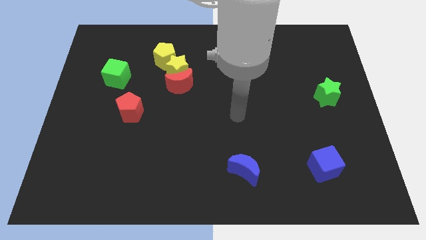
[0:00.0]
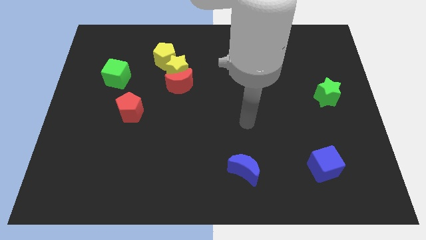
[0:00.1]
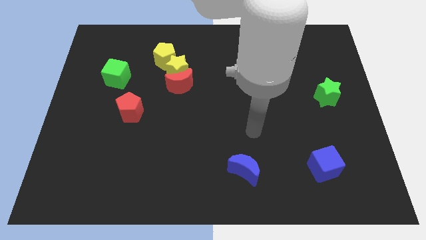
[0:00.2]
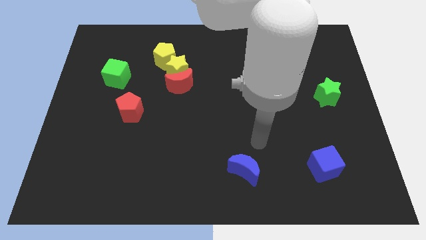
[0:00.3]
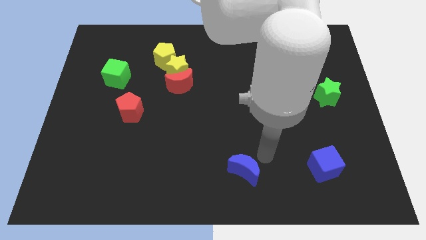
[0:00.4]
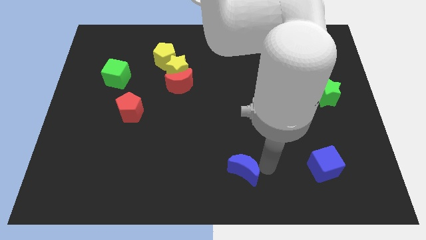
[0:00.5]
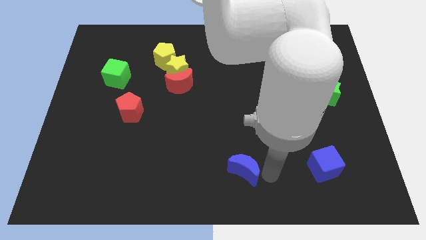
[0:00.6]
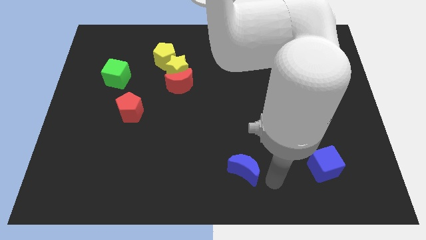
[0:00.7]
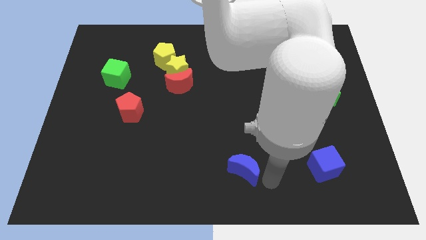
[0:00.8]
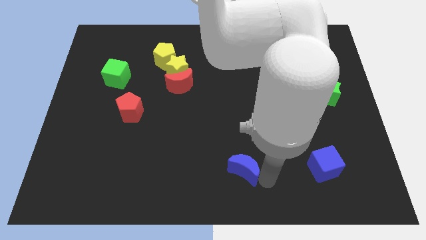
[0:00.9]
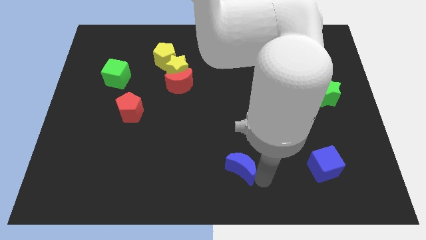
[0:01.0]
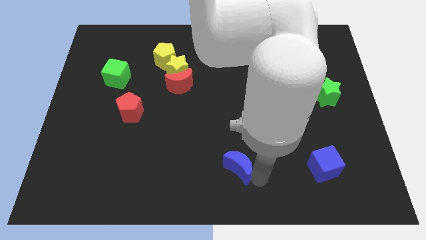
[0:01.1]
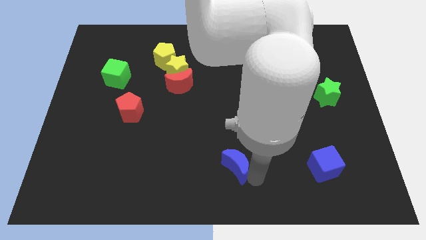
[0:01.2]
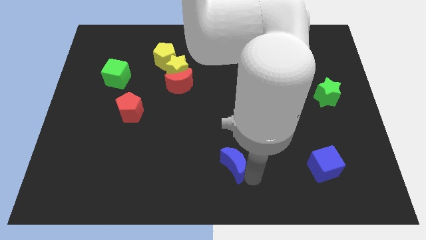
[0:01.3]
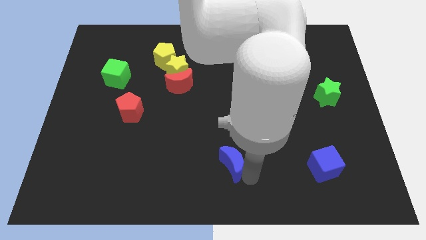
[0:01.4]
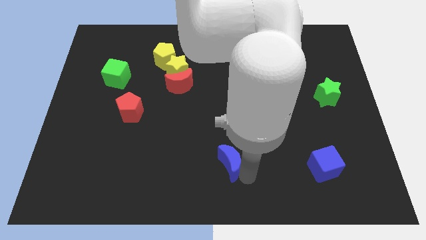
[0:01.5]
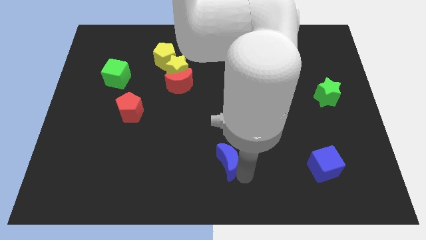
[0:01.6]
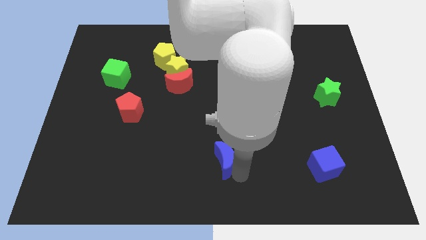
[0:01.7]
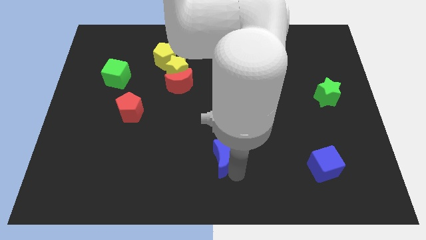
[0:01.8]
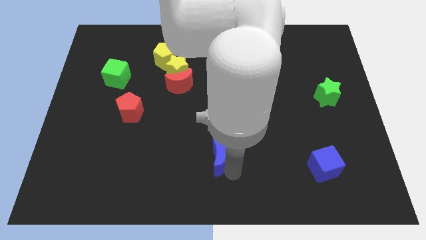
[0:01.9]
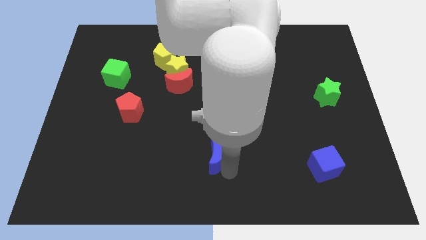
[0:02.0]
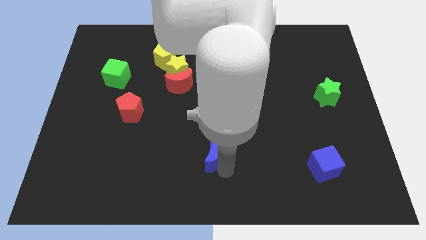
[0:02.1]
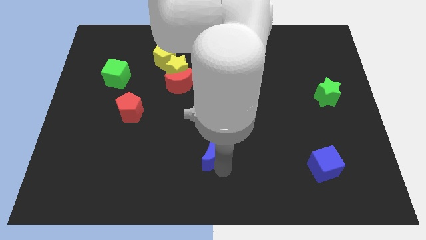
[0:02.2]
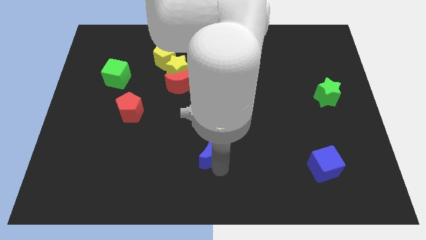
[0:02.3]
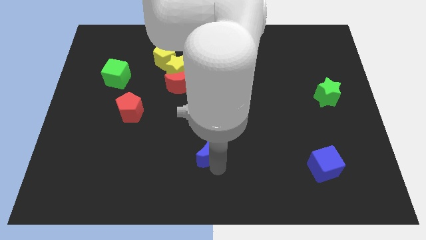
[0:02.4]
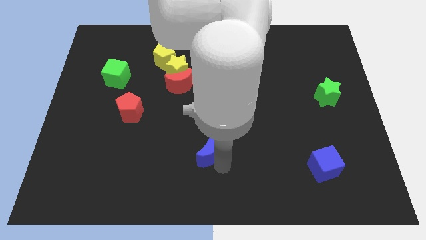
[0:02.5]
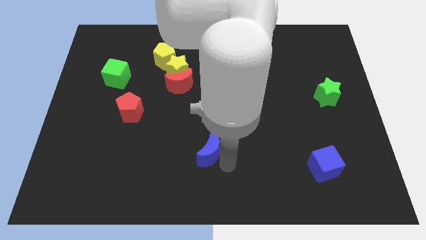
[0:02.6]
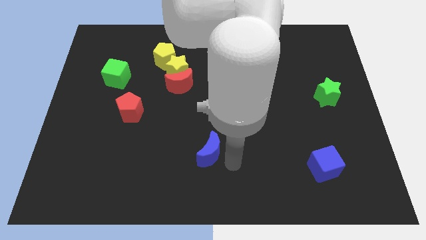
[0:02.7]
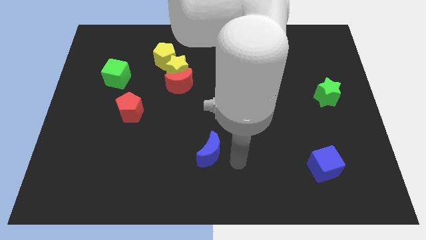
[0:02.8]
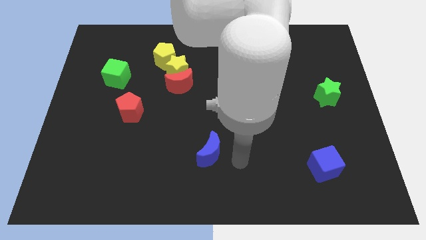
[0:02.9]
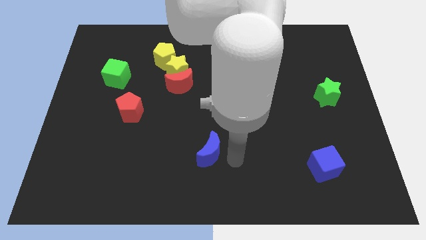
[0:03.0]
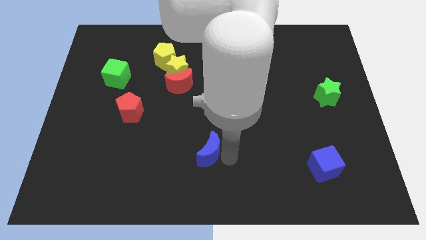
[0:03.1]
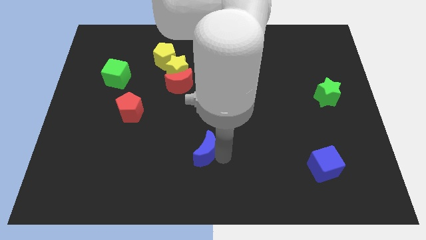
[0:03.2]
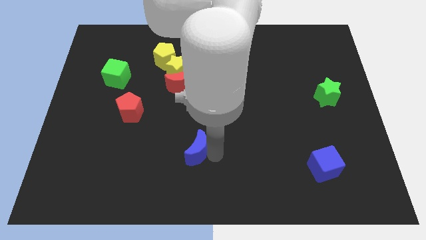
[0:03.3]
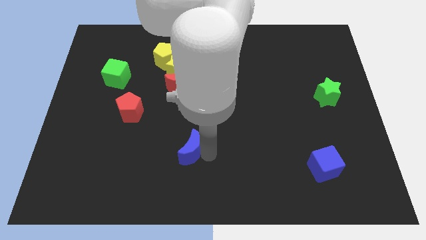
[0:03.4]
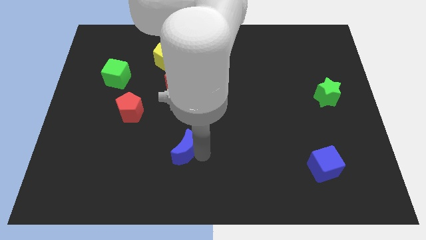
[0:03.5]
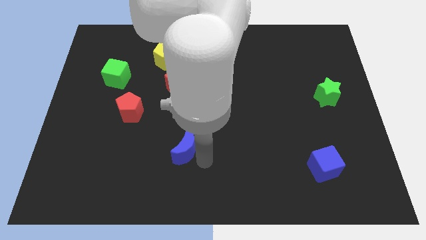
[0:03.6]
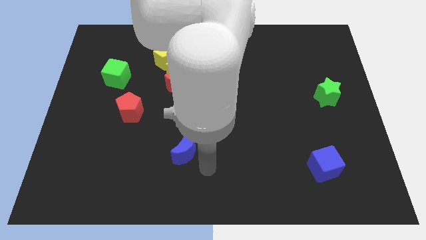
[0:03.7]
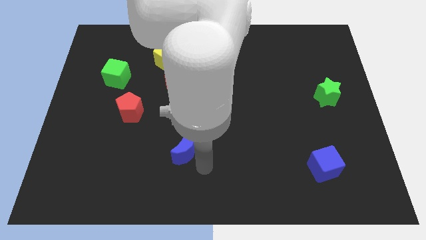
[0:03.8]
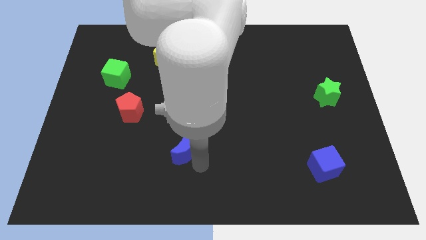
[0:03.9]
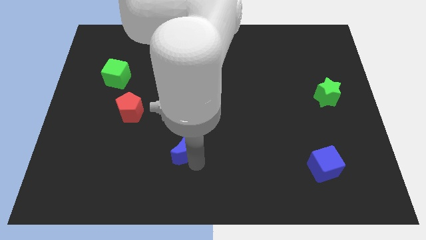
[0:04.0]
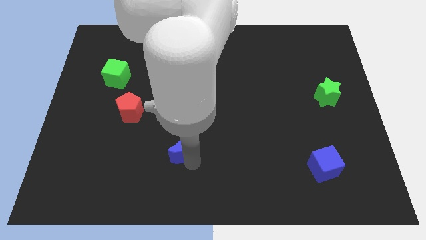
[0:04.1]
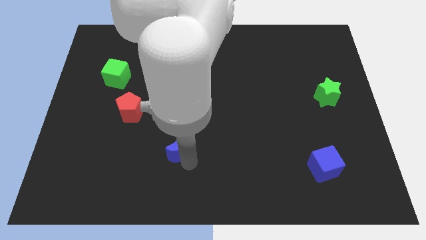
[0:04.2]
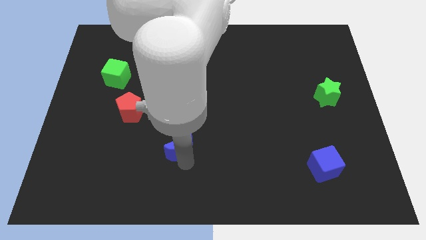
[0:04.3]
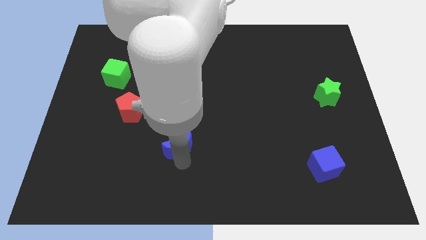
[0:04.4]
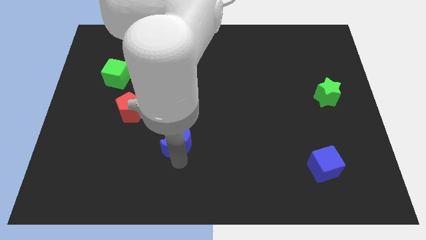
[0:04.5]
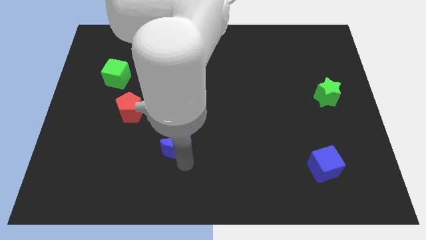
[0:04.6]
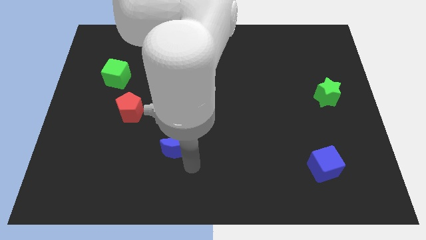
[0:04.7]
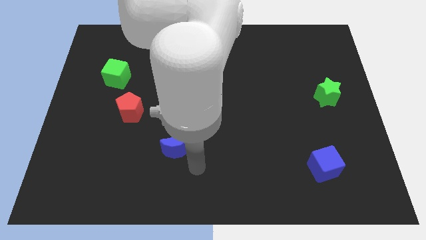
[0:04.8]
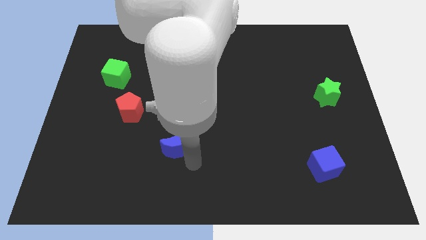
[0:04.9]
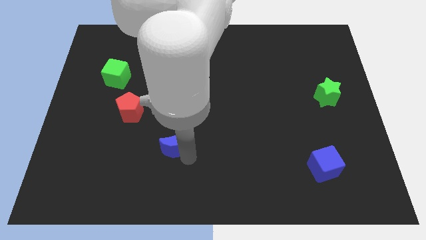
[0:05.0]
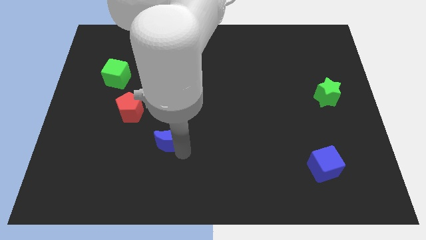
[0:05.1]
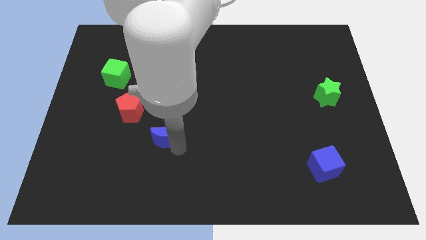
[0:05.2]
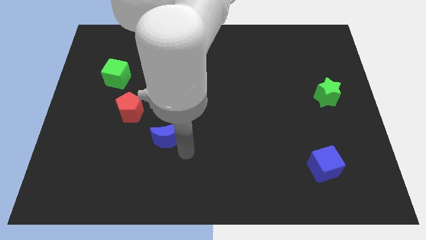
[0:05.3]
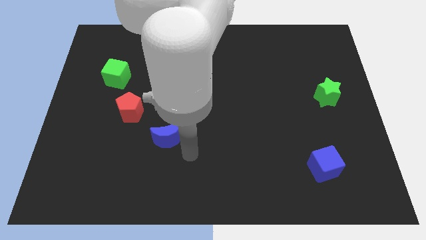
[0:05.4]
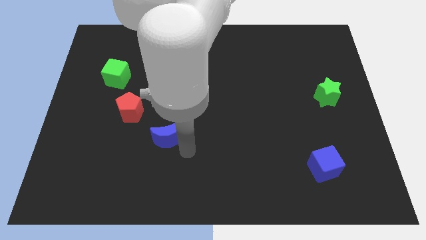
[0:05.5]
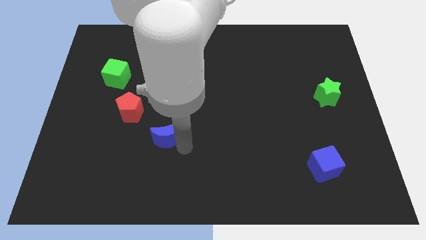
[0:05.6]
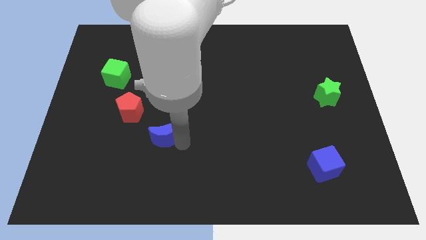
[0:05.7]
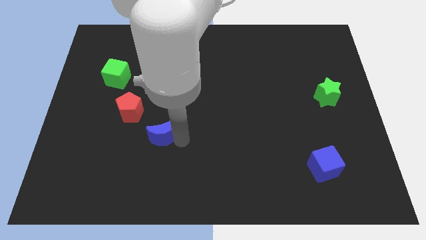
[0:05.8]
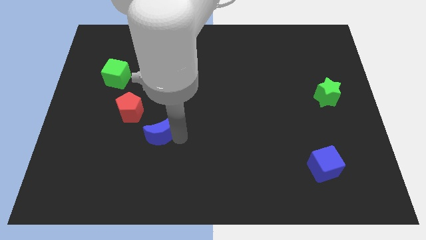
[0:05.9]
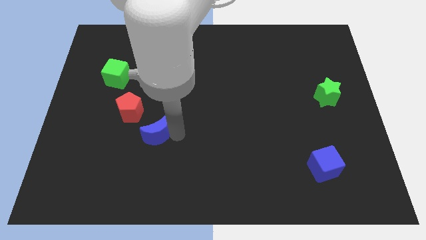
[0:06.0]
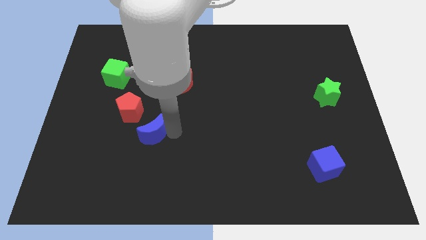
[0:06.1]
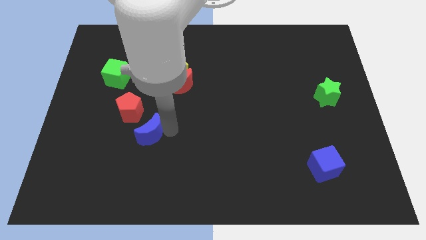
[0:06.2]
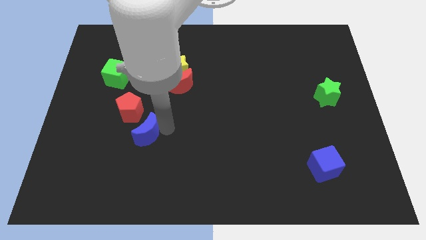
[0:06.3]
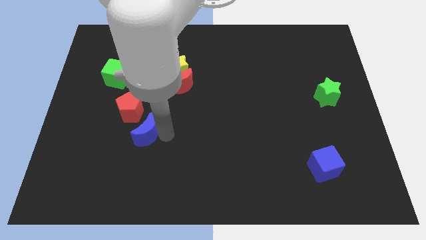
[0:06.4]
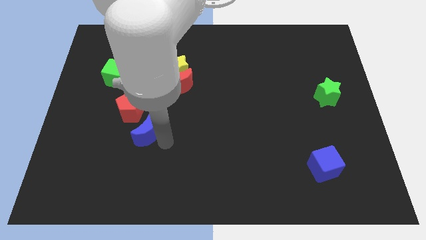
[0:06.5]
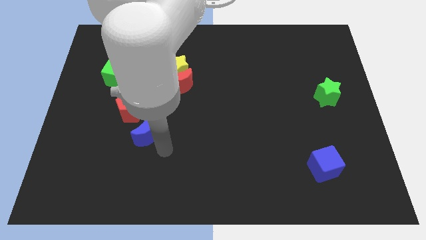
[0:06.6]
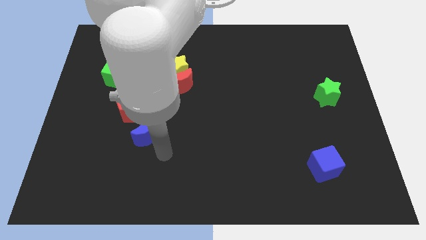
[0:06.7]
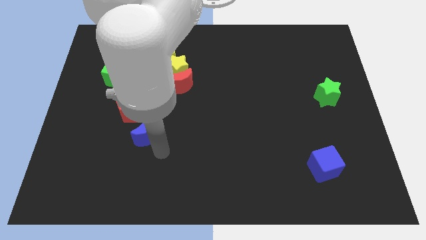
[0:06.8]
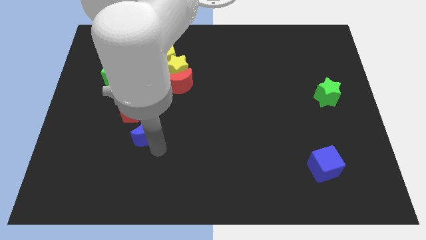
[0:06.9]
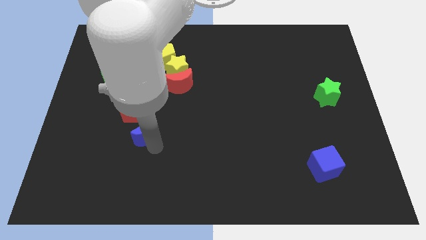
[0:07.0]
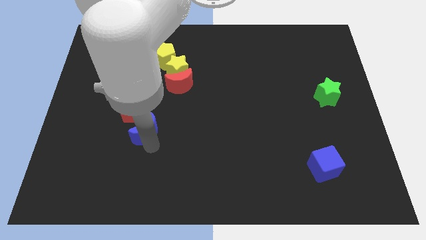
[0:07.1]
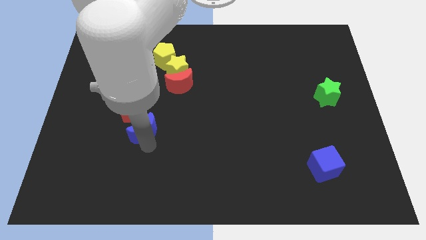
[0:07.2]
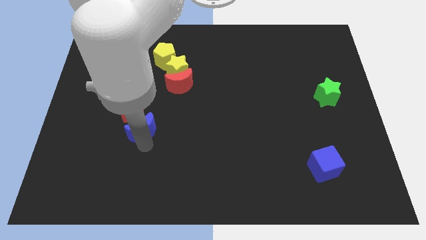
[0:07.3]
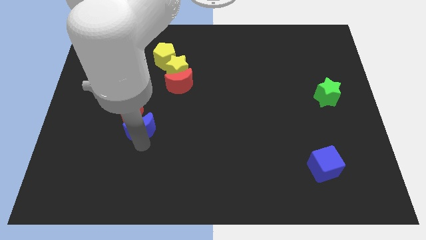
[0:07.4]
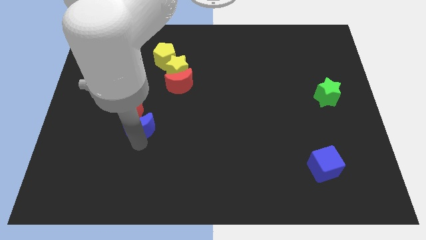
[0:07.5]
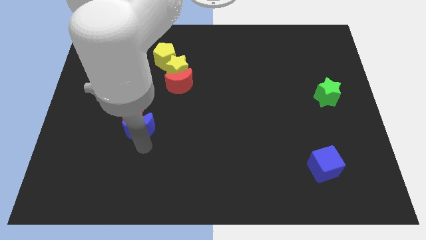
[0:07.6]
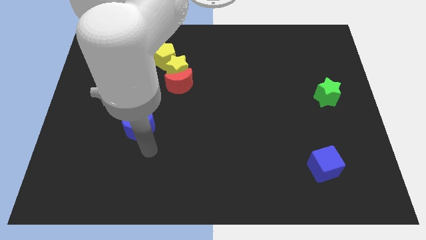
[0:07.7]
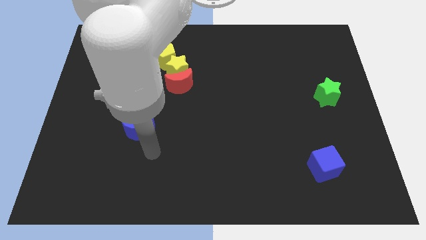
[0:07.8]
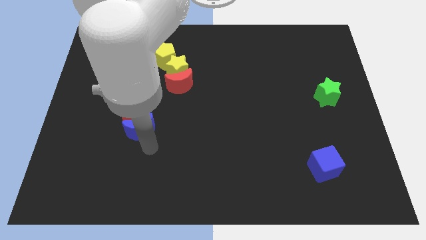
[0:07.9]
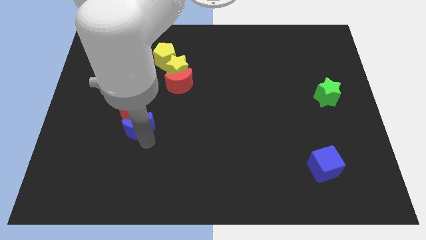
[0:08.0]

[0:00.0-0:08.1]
slide the blue moon close to the red pentagon
